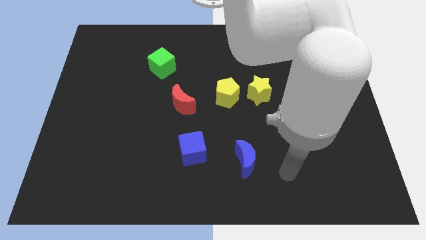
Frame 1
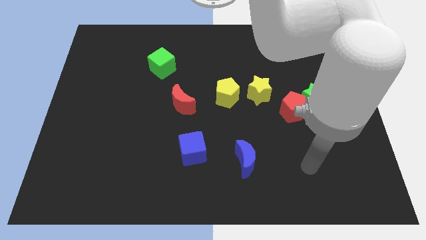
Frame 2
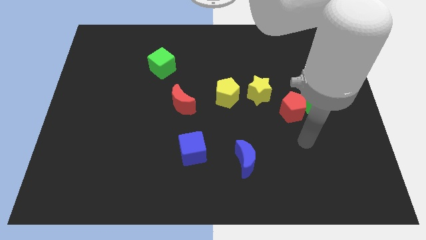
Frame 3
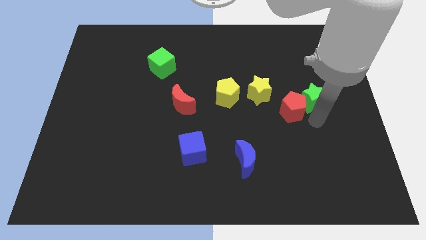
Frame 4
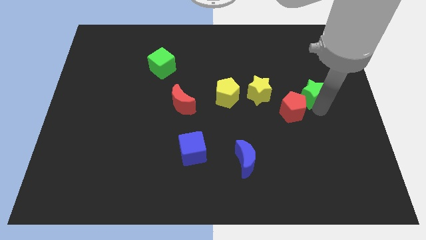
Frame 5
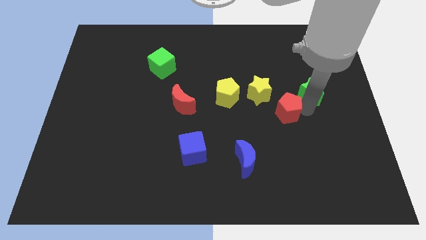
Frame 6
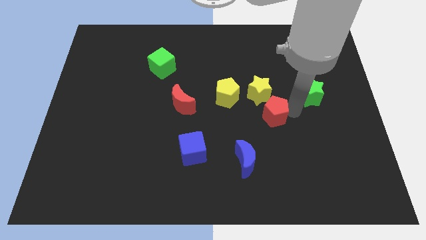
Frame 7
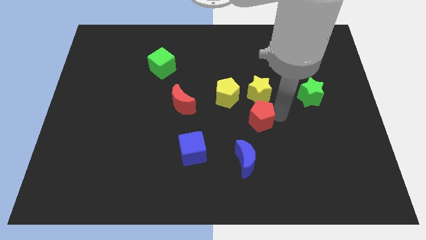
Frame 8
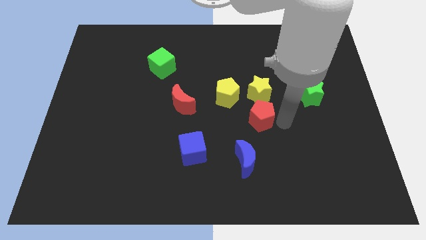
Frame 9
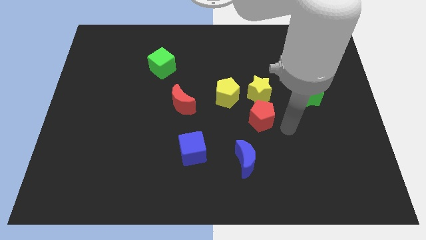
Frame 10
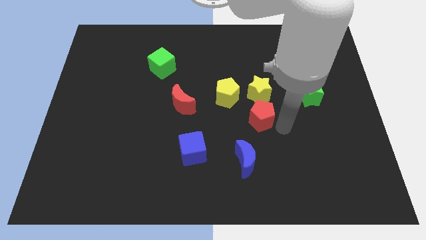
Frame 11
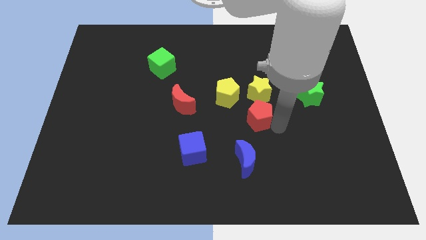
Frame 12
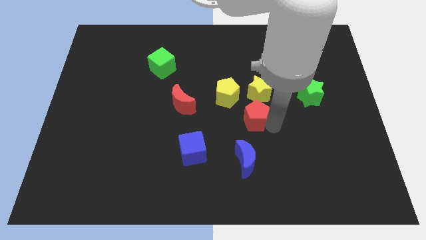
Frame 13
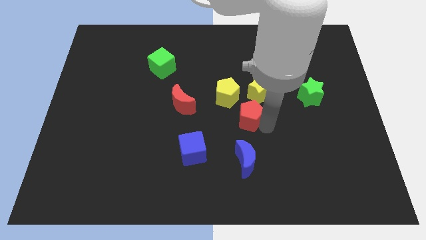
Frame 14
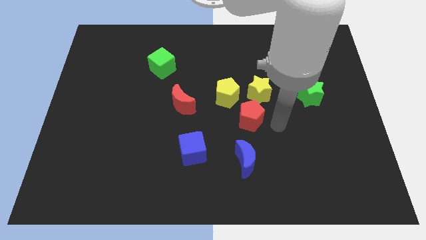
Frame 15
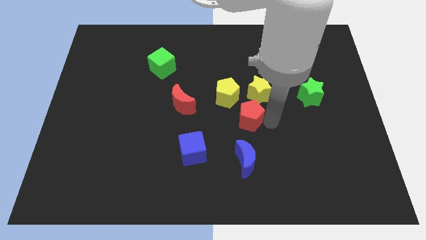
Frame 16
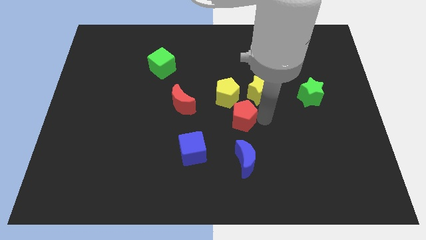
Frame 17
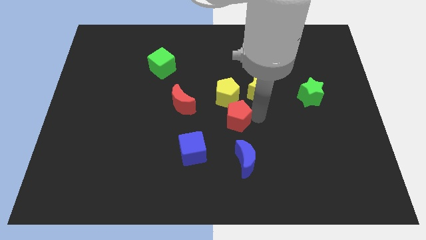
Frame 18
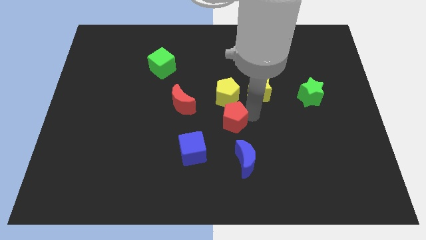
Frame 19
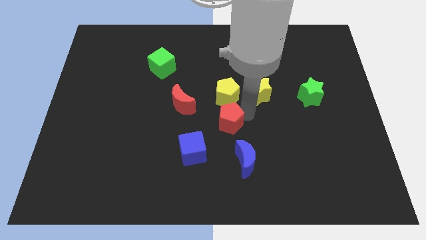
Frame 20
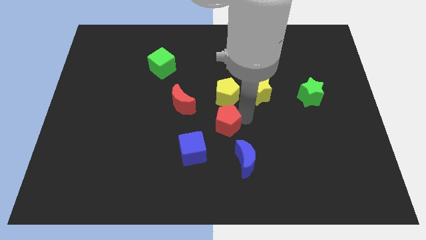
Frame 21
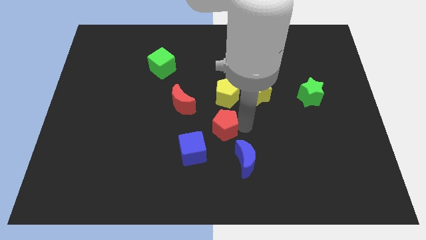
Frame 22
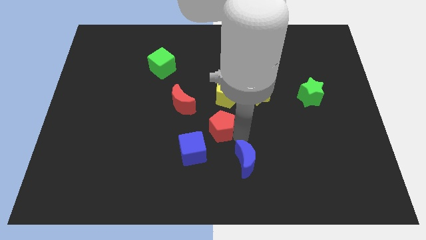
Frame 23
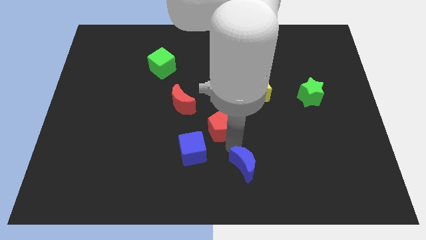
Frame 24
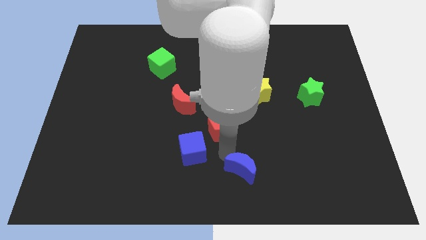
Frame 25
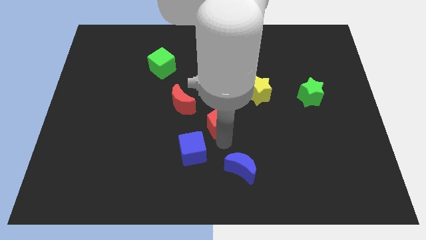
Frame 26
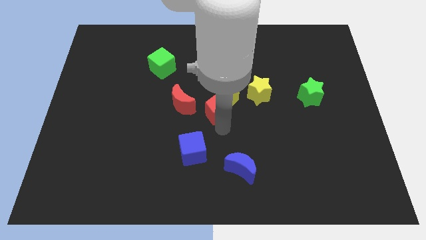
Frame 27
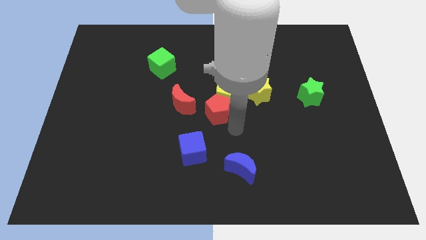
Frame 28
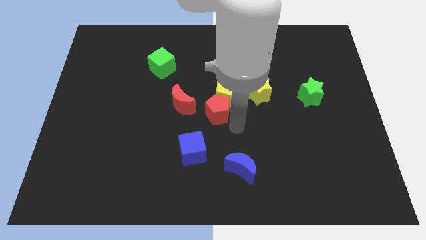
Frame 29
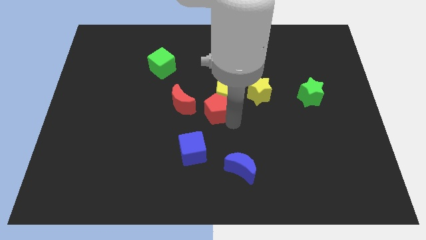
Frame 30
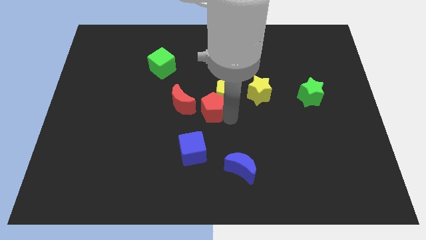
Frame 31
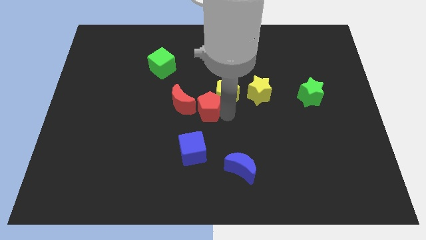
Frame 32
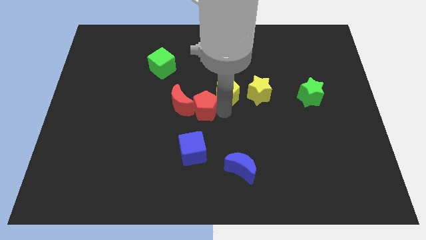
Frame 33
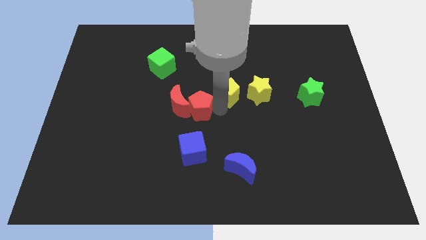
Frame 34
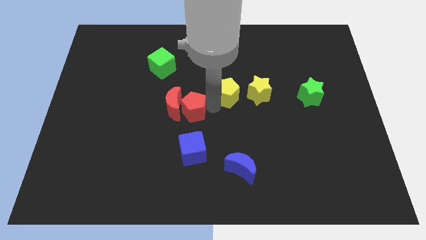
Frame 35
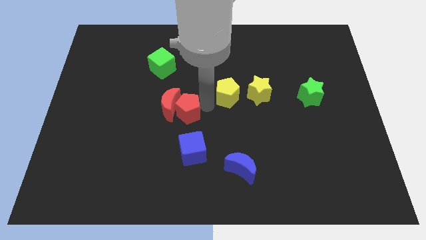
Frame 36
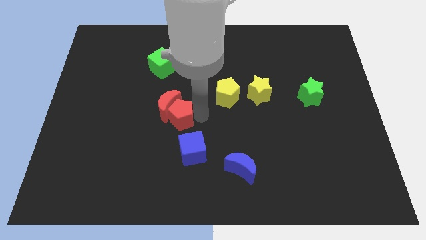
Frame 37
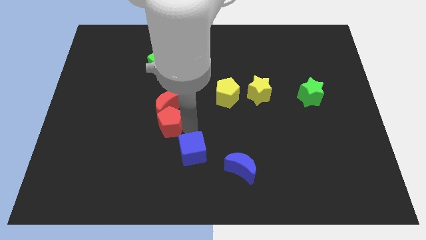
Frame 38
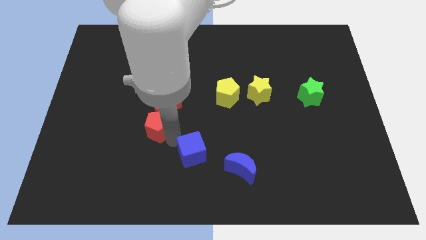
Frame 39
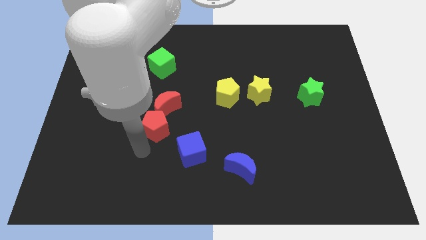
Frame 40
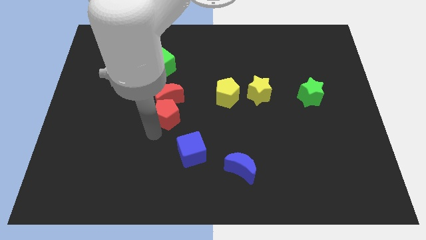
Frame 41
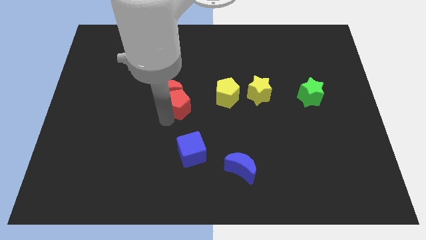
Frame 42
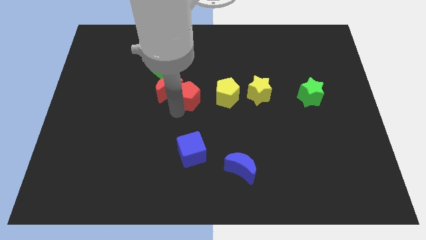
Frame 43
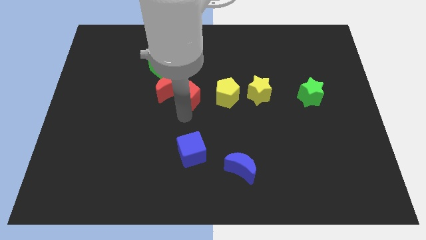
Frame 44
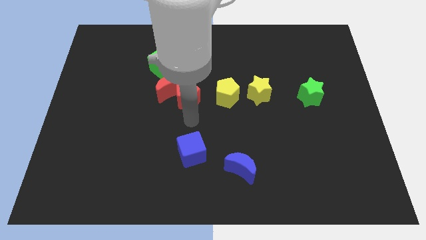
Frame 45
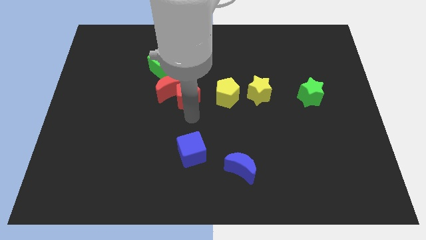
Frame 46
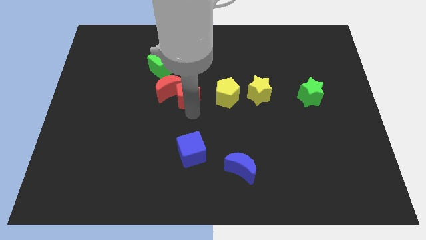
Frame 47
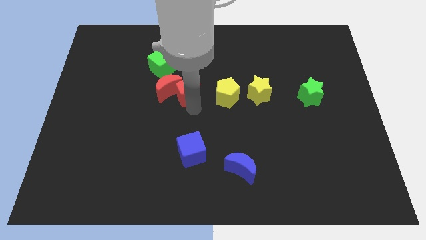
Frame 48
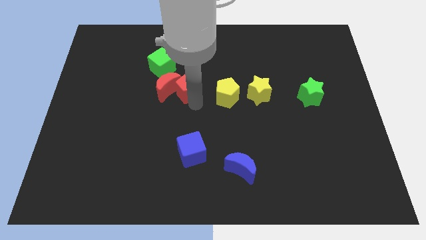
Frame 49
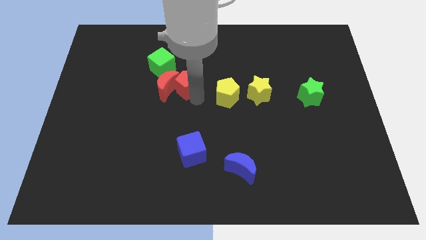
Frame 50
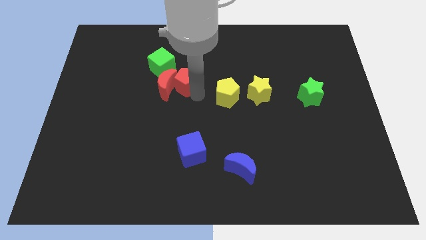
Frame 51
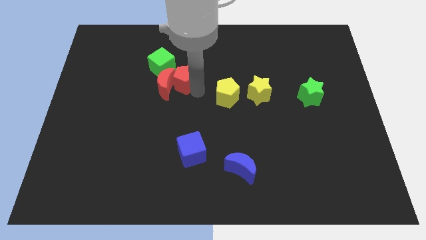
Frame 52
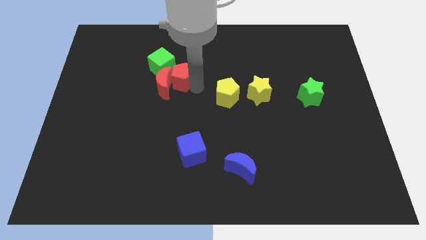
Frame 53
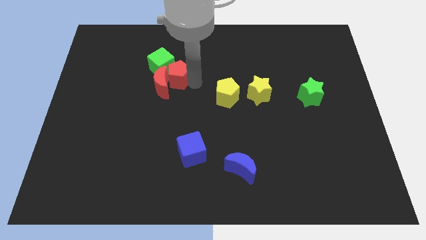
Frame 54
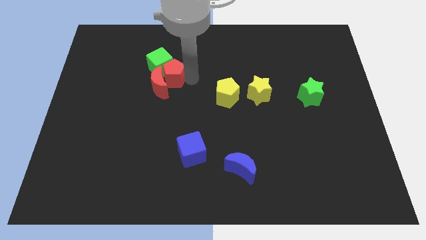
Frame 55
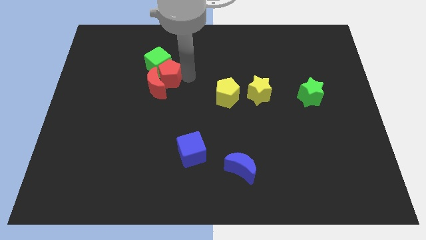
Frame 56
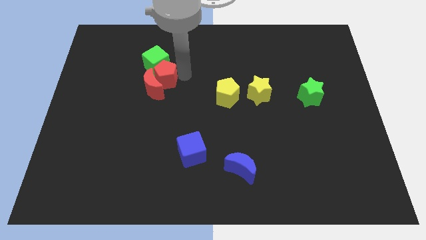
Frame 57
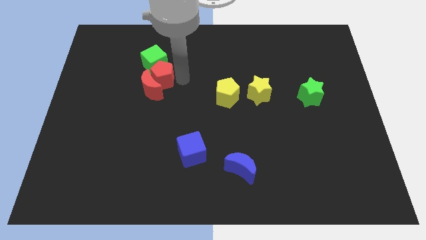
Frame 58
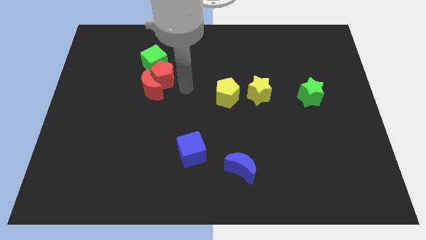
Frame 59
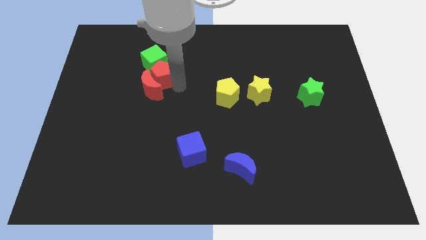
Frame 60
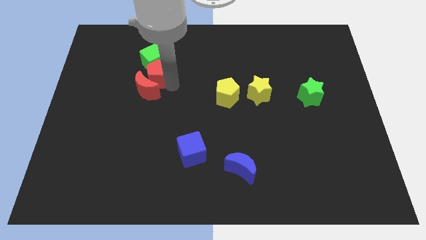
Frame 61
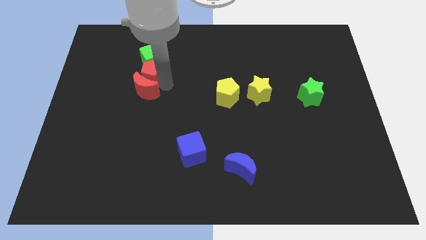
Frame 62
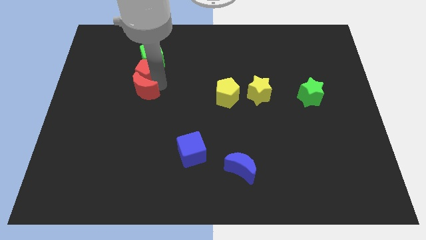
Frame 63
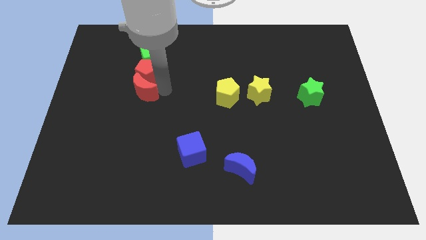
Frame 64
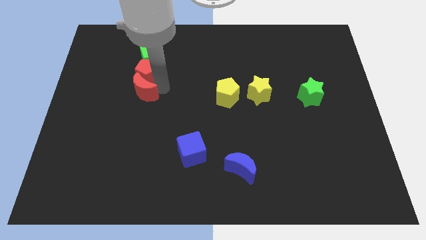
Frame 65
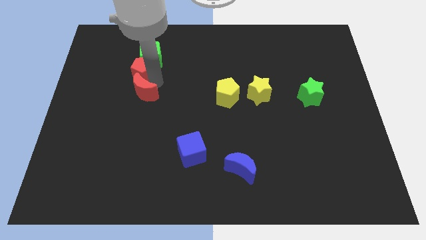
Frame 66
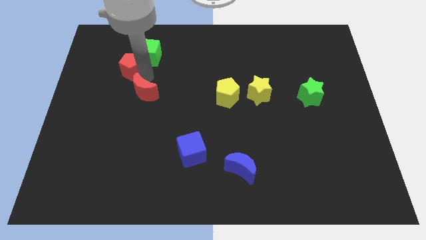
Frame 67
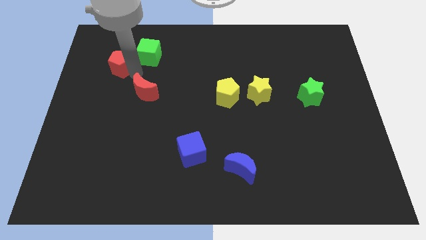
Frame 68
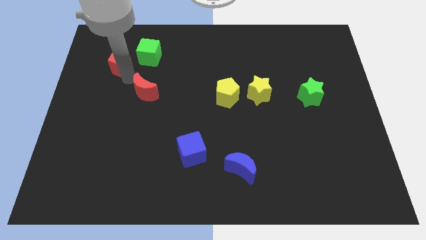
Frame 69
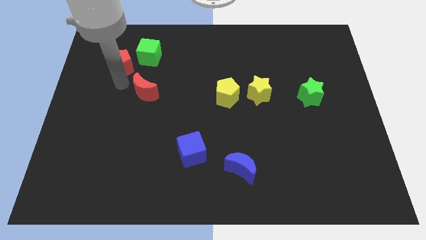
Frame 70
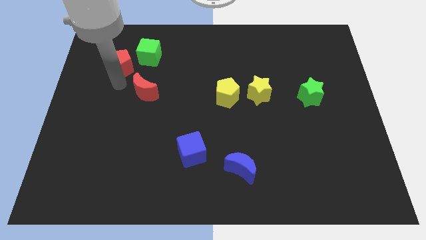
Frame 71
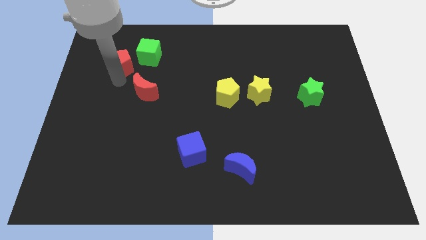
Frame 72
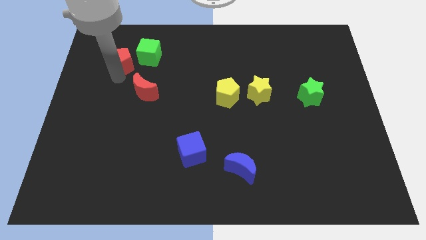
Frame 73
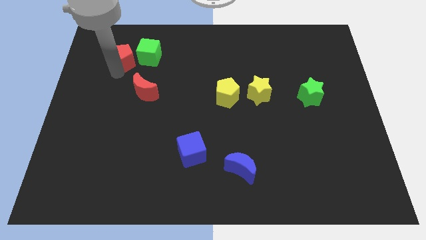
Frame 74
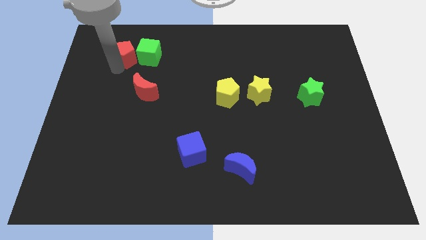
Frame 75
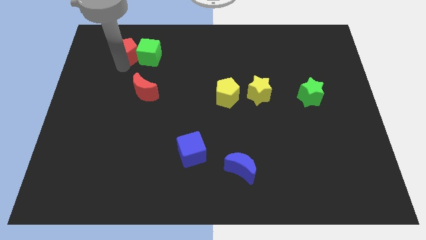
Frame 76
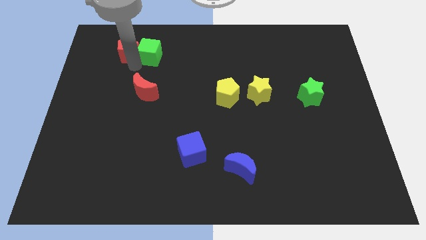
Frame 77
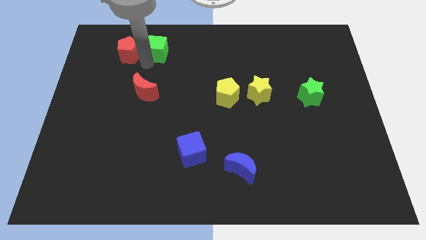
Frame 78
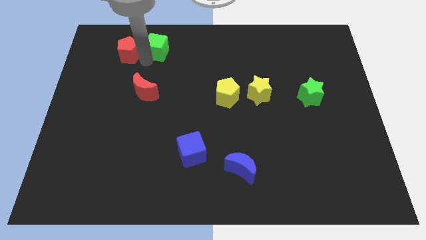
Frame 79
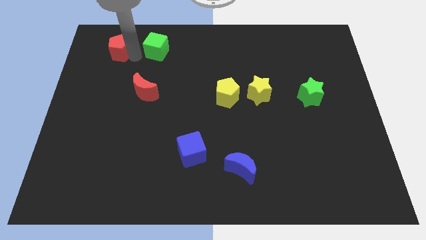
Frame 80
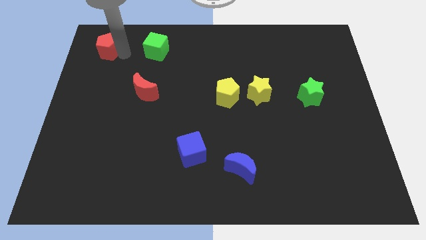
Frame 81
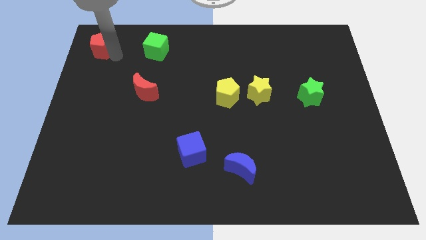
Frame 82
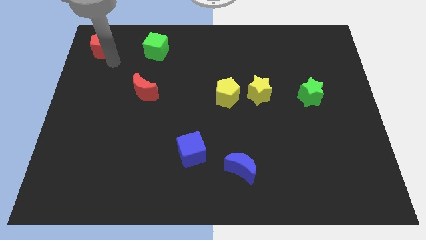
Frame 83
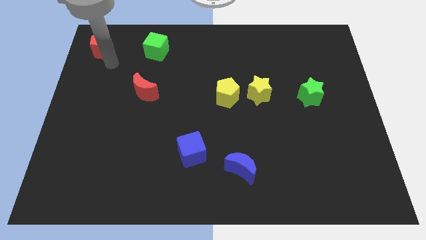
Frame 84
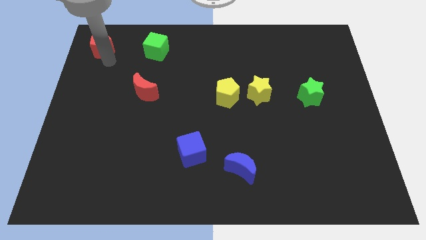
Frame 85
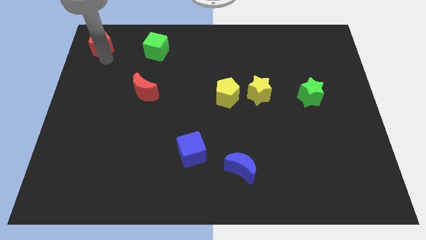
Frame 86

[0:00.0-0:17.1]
move the red pentagon to the top left of the board
